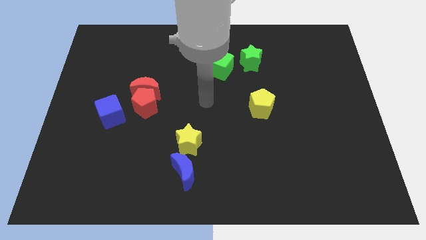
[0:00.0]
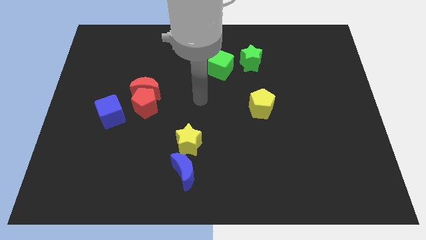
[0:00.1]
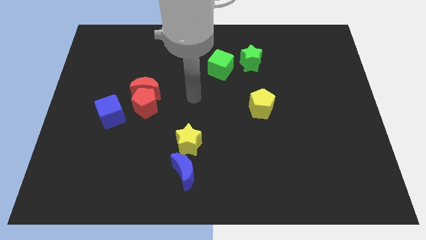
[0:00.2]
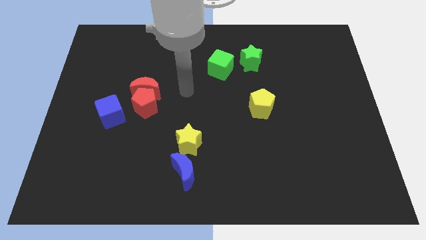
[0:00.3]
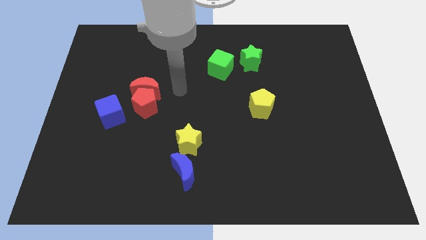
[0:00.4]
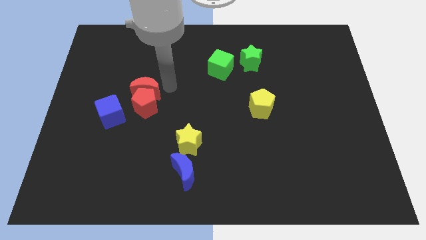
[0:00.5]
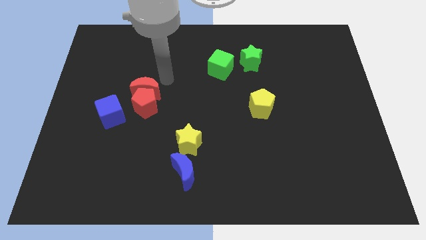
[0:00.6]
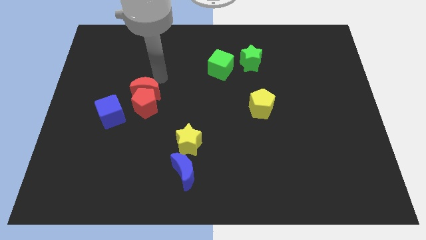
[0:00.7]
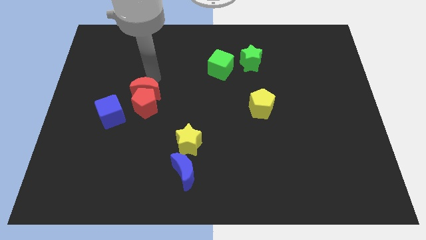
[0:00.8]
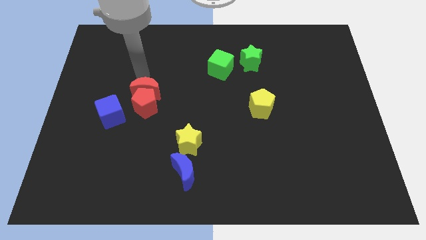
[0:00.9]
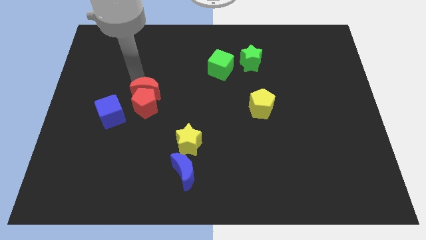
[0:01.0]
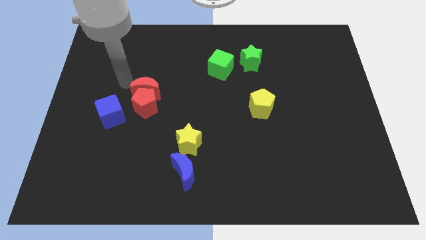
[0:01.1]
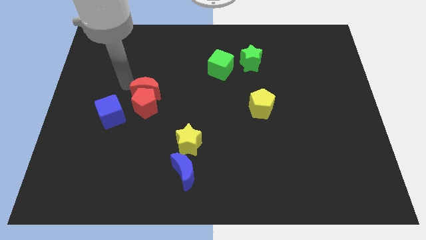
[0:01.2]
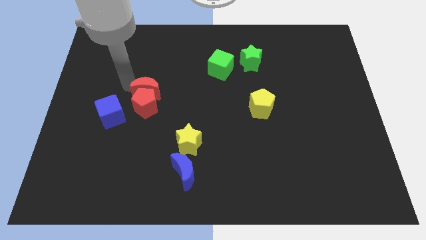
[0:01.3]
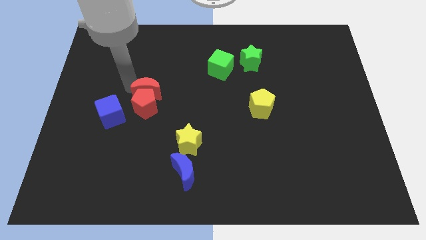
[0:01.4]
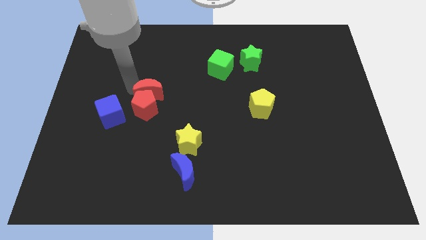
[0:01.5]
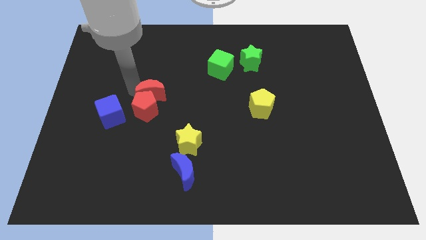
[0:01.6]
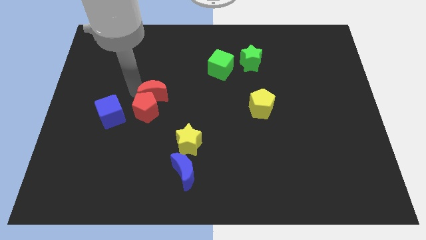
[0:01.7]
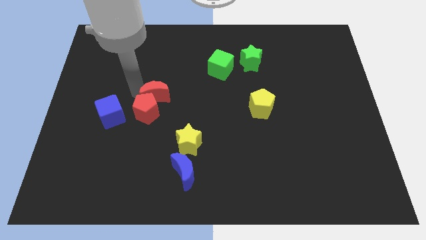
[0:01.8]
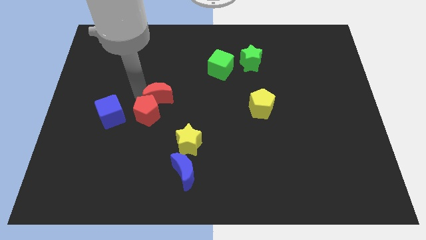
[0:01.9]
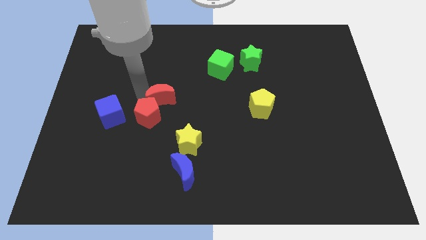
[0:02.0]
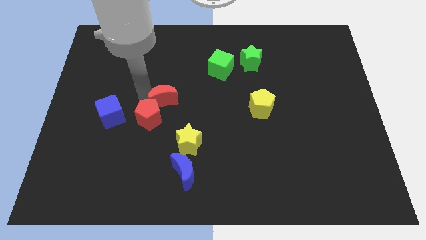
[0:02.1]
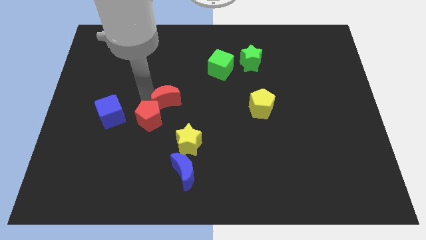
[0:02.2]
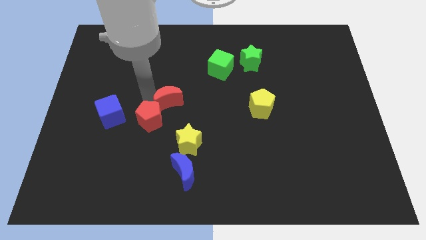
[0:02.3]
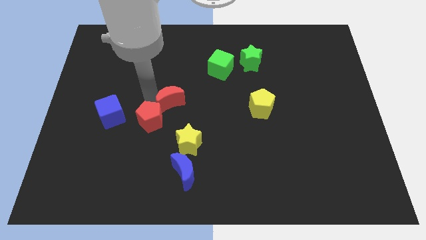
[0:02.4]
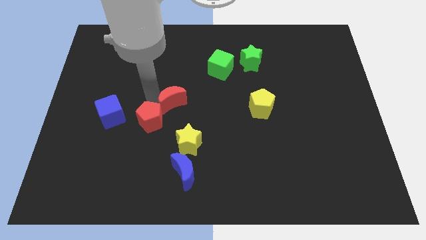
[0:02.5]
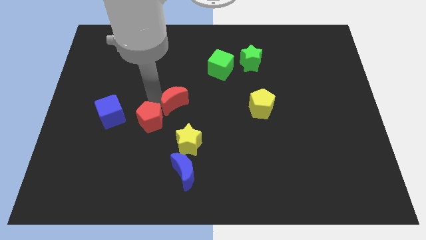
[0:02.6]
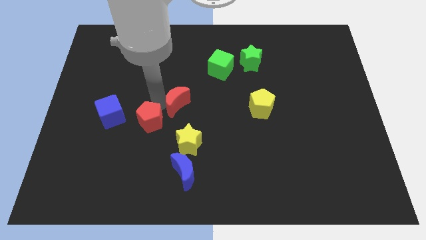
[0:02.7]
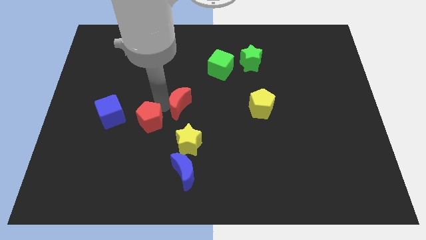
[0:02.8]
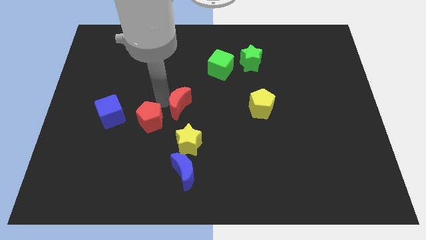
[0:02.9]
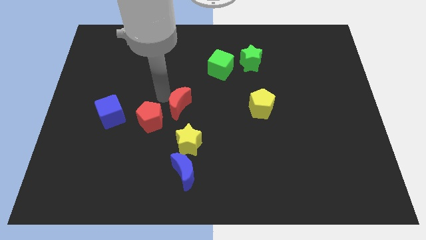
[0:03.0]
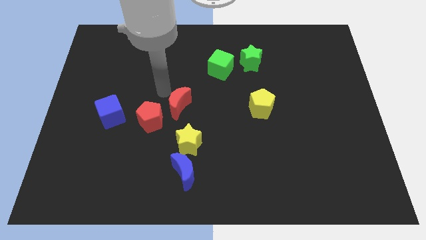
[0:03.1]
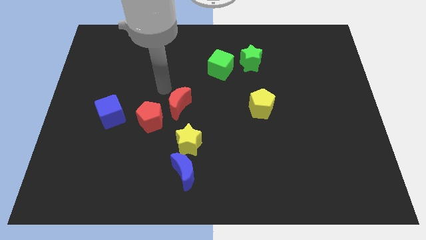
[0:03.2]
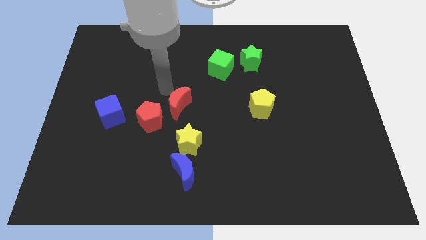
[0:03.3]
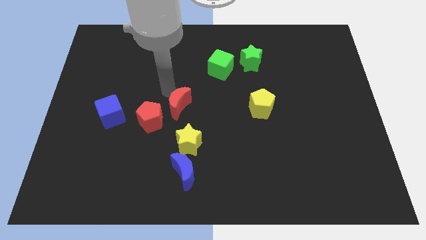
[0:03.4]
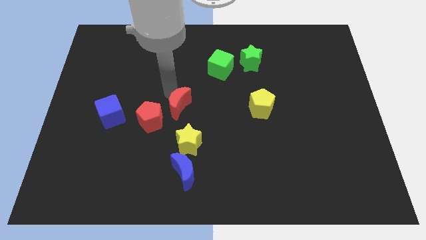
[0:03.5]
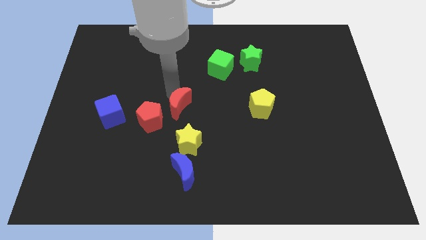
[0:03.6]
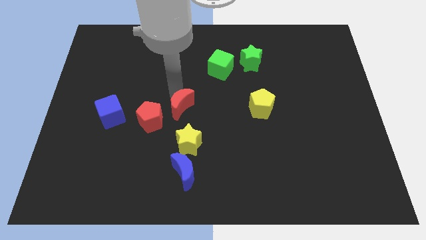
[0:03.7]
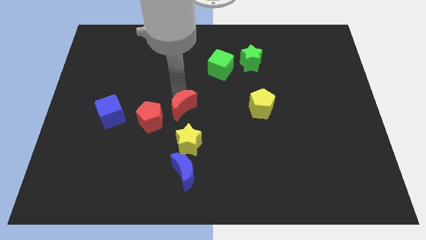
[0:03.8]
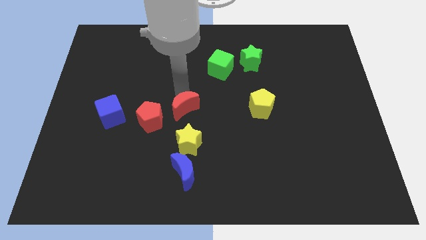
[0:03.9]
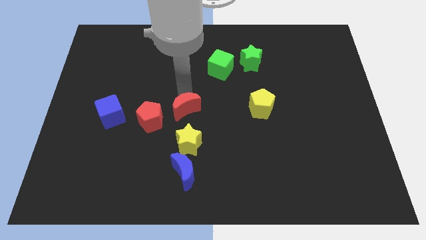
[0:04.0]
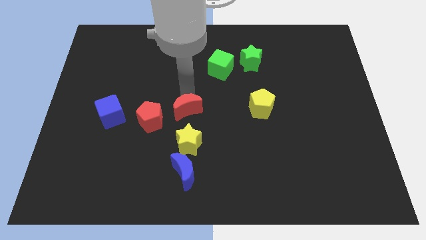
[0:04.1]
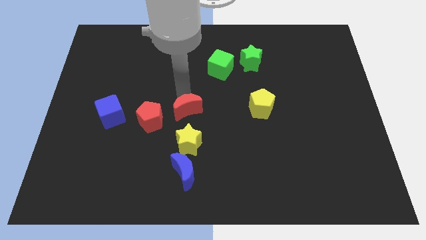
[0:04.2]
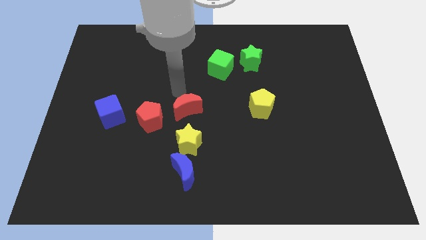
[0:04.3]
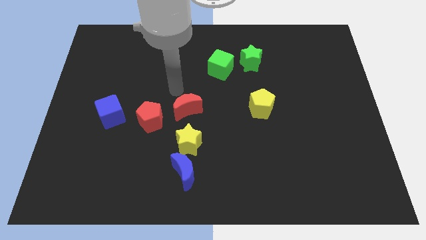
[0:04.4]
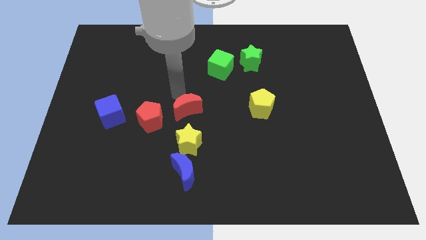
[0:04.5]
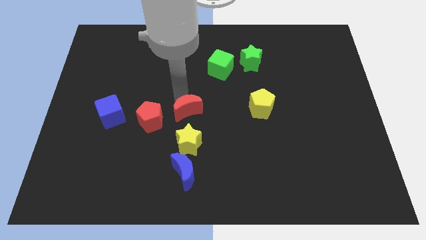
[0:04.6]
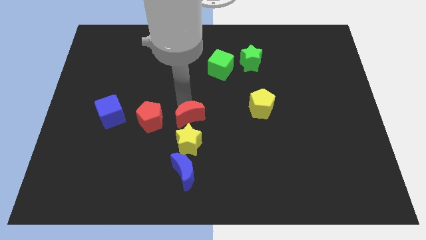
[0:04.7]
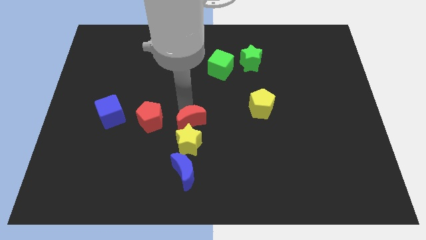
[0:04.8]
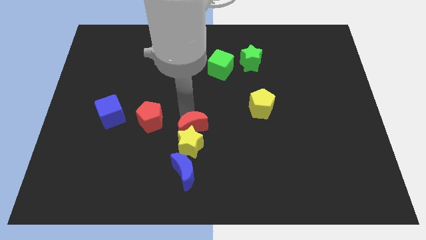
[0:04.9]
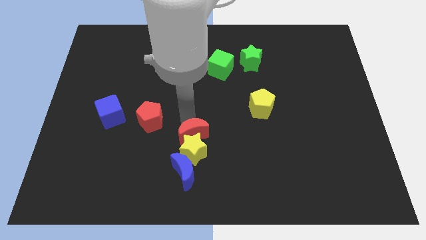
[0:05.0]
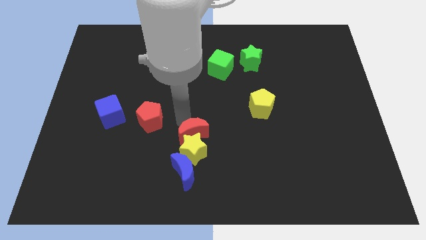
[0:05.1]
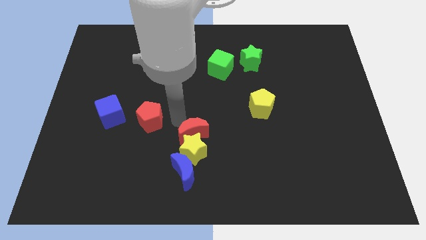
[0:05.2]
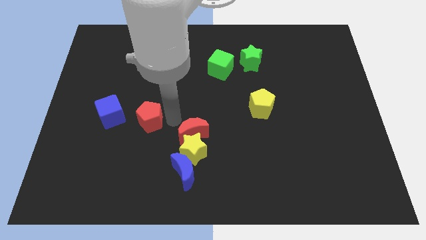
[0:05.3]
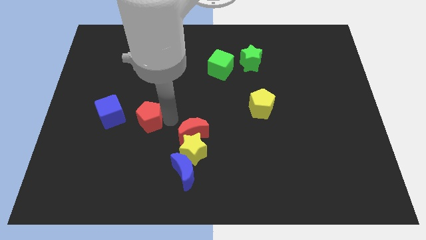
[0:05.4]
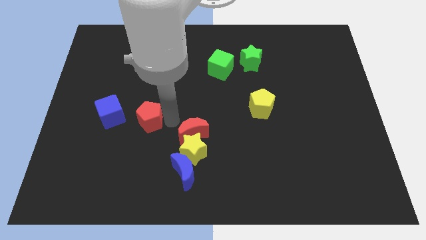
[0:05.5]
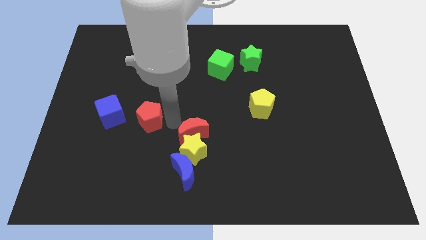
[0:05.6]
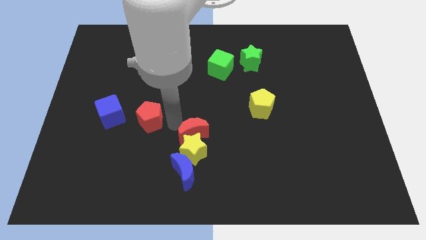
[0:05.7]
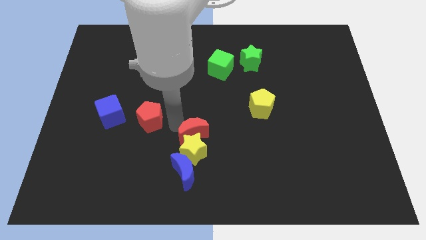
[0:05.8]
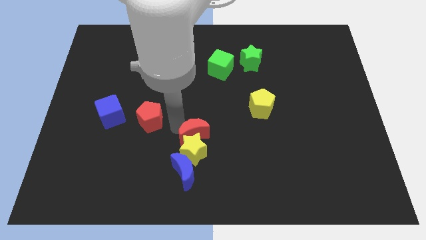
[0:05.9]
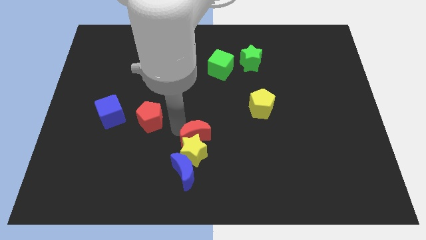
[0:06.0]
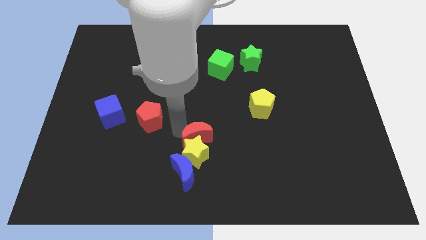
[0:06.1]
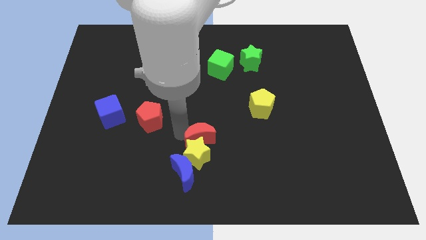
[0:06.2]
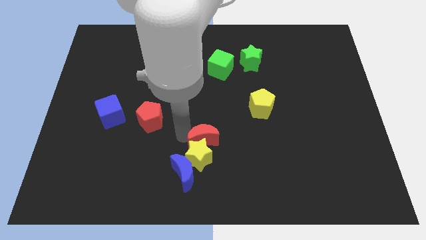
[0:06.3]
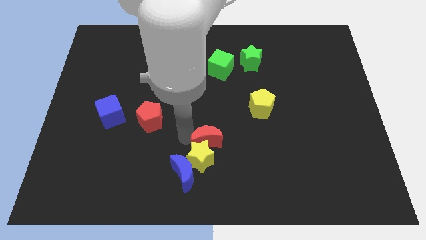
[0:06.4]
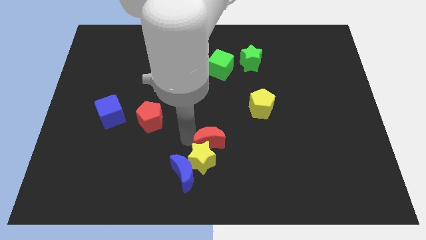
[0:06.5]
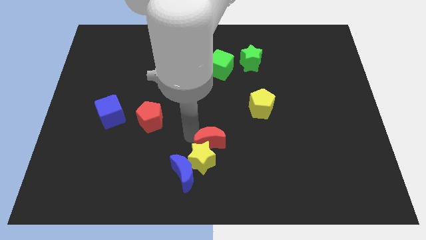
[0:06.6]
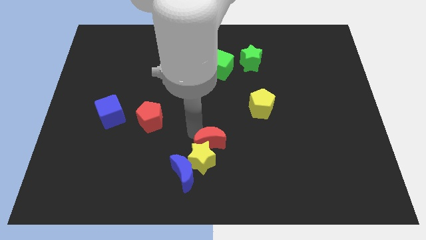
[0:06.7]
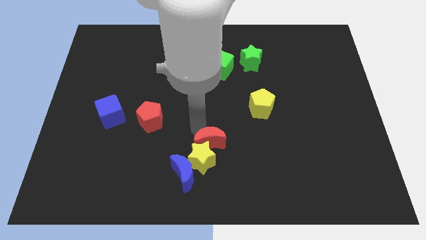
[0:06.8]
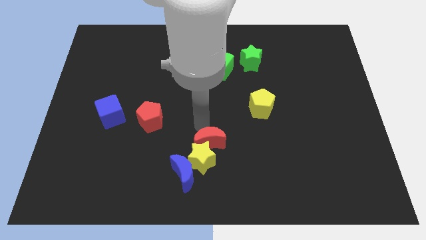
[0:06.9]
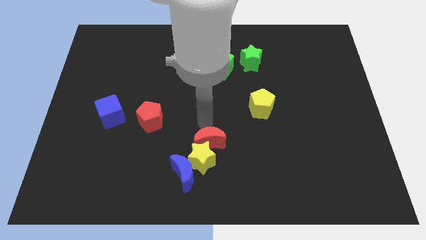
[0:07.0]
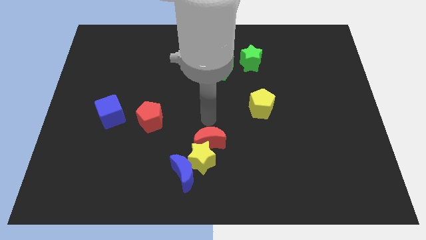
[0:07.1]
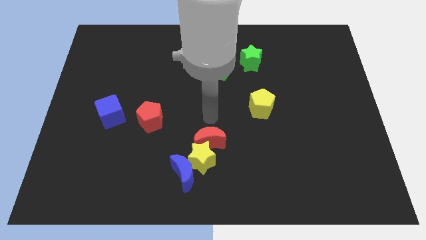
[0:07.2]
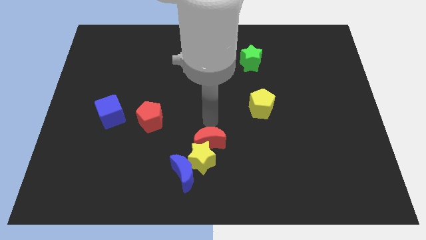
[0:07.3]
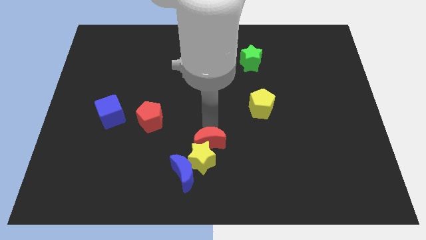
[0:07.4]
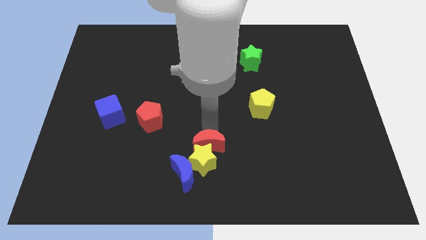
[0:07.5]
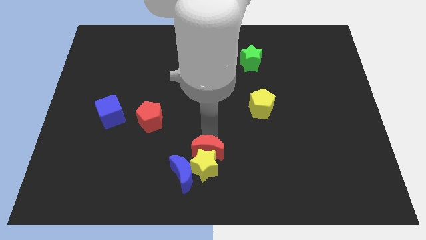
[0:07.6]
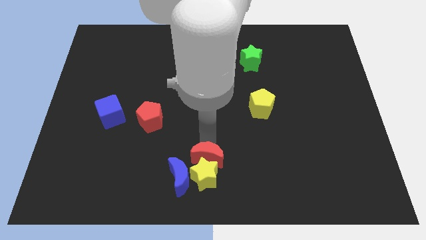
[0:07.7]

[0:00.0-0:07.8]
put the red moon to the bottom
